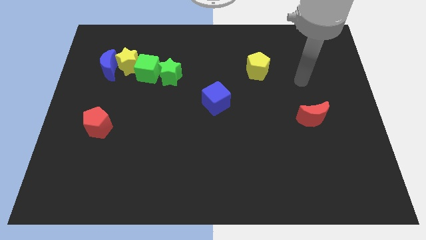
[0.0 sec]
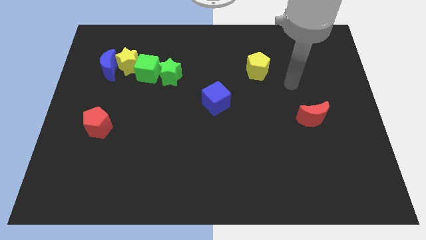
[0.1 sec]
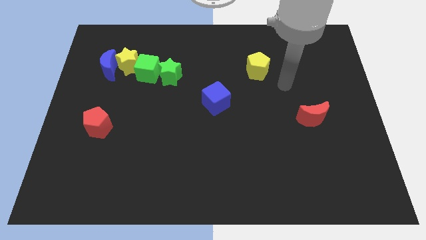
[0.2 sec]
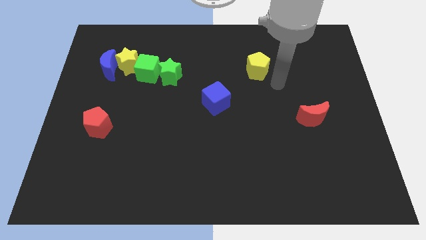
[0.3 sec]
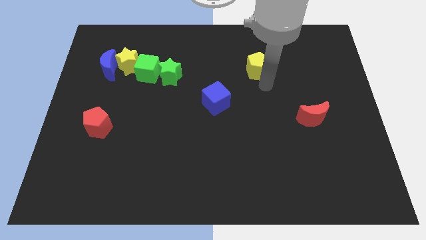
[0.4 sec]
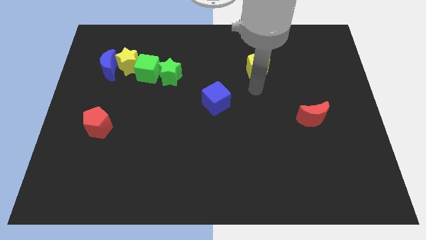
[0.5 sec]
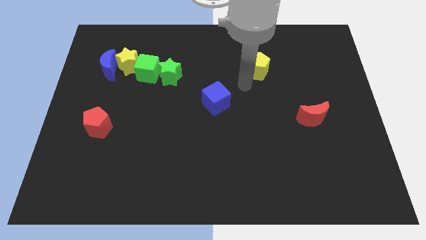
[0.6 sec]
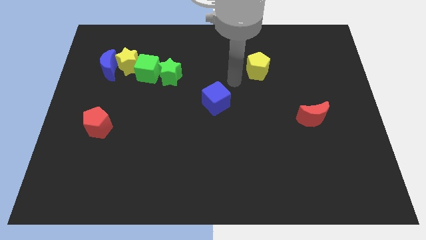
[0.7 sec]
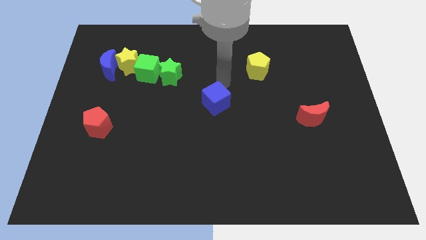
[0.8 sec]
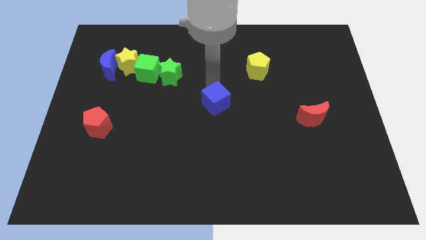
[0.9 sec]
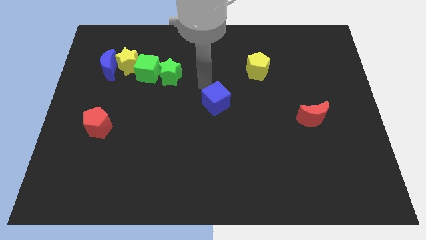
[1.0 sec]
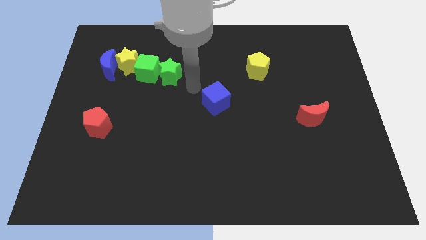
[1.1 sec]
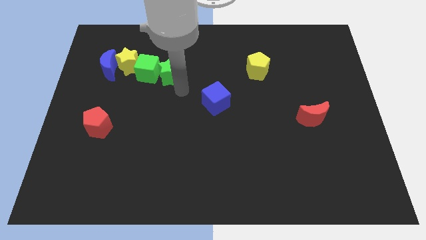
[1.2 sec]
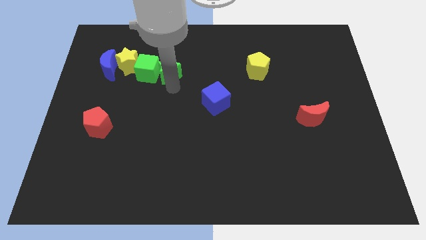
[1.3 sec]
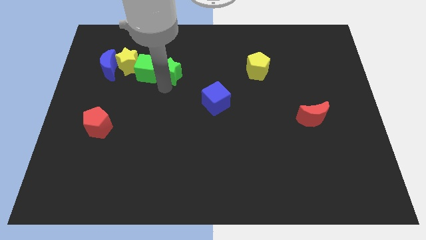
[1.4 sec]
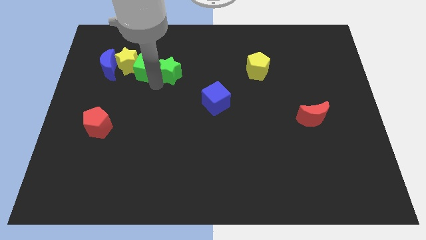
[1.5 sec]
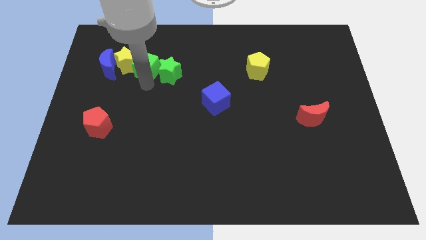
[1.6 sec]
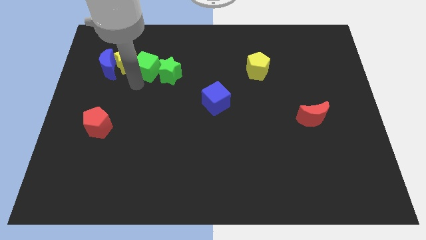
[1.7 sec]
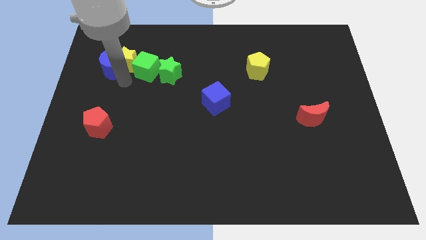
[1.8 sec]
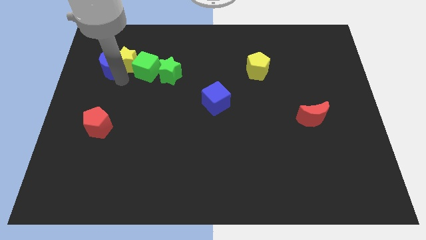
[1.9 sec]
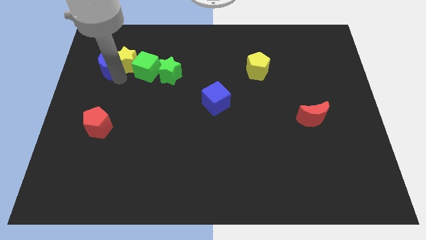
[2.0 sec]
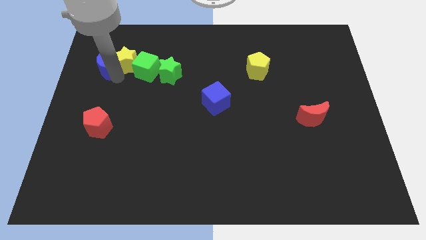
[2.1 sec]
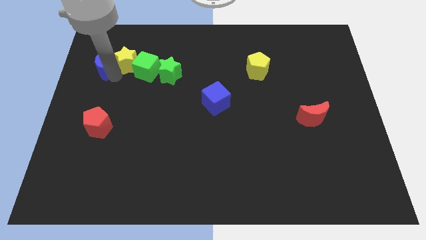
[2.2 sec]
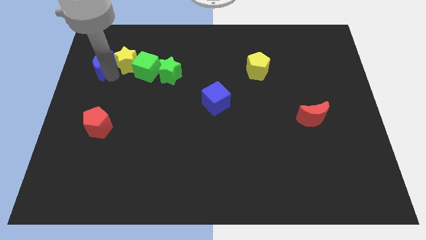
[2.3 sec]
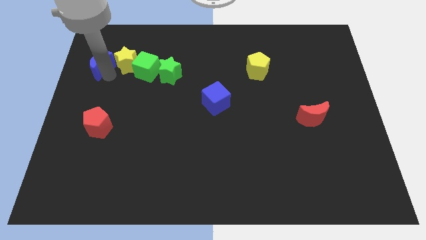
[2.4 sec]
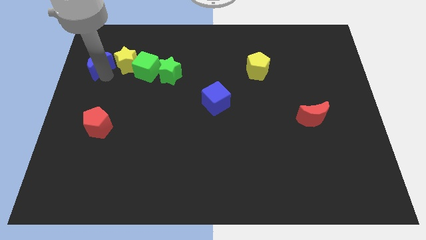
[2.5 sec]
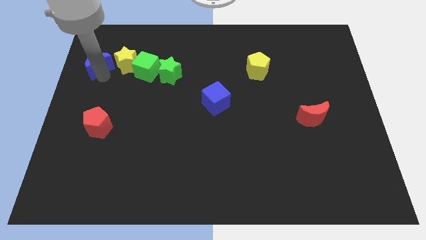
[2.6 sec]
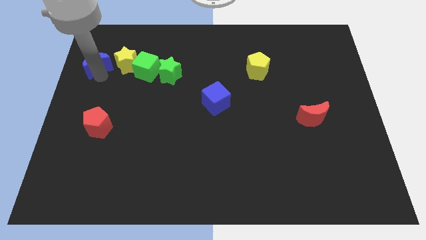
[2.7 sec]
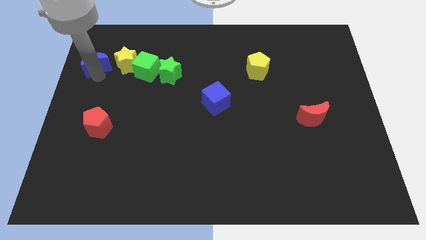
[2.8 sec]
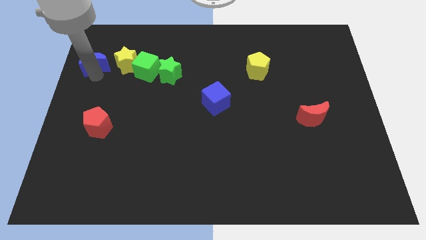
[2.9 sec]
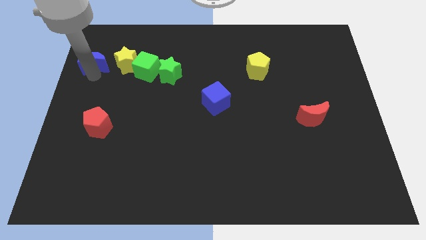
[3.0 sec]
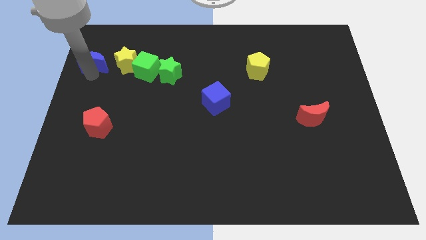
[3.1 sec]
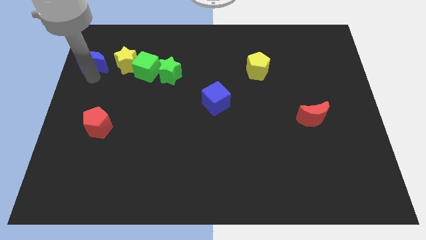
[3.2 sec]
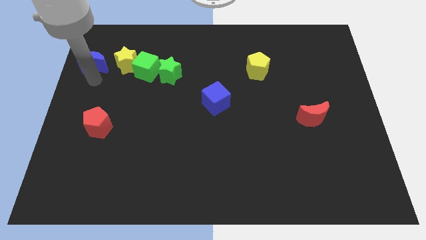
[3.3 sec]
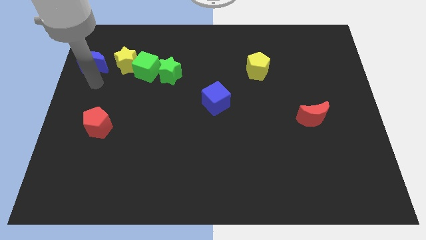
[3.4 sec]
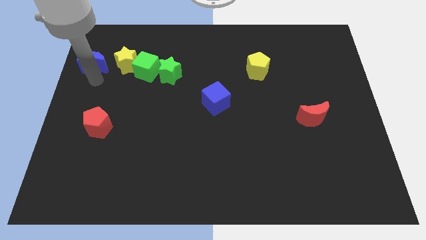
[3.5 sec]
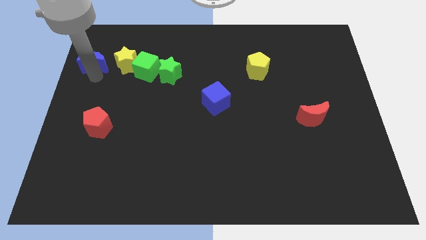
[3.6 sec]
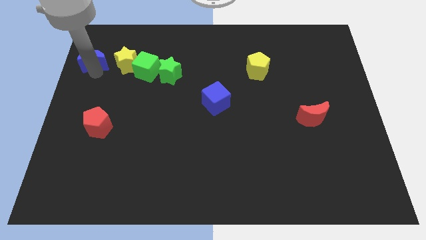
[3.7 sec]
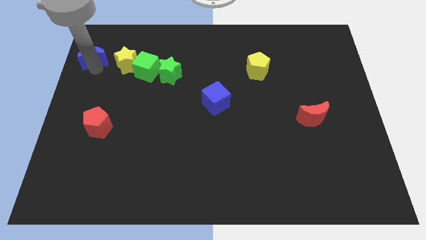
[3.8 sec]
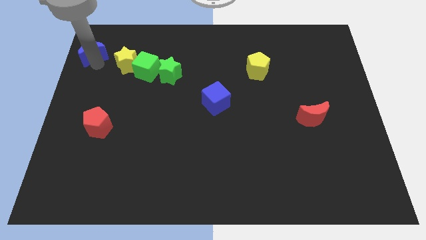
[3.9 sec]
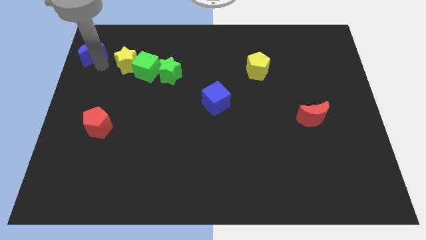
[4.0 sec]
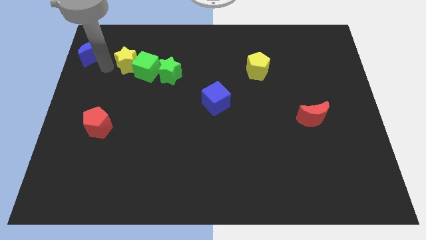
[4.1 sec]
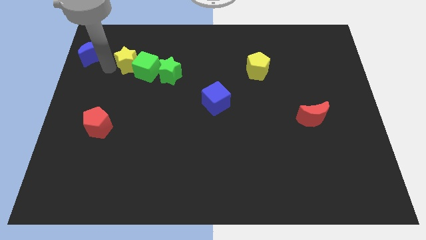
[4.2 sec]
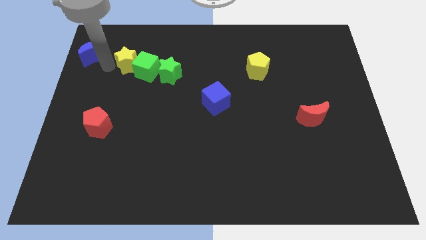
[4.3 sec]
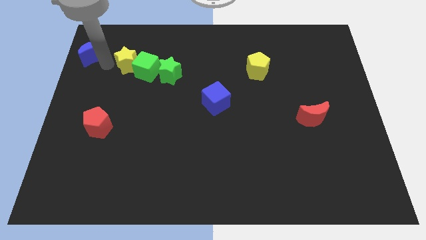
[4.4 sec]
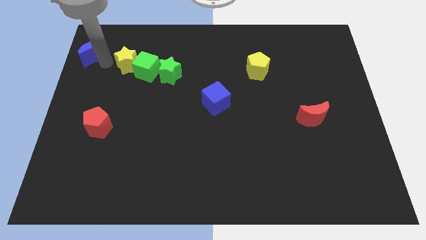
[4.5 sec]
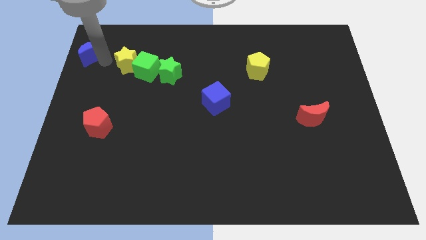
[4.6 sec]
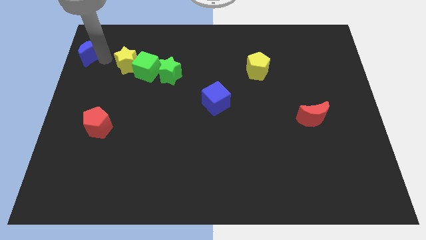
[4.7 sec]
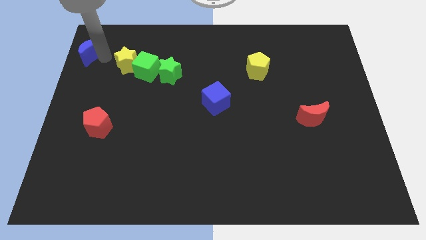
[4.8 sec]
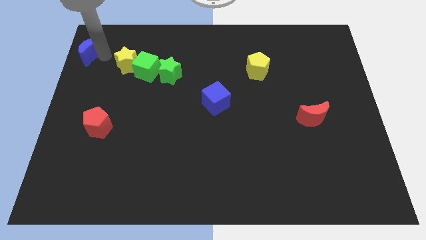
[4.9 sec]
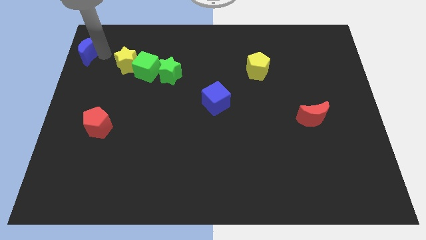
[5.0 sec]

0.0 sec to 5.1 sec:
move the blue moon to the top left

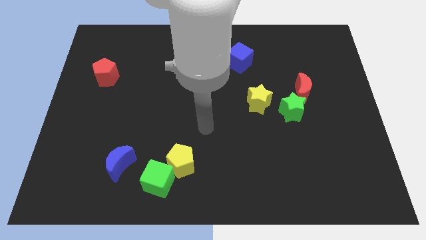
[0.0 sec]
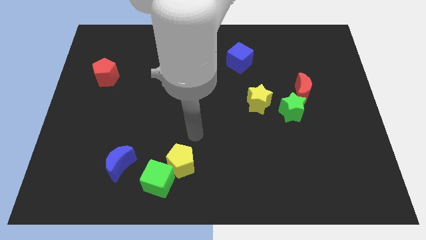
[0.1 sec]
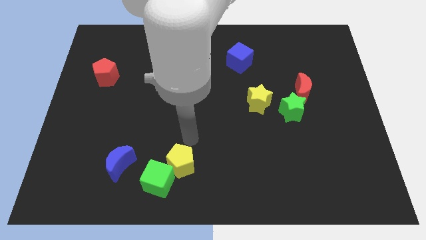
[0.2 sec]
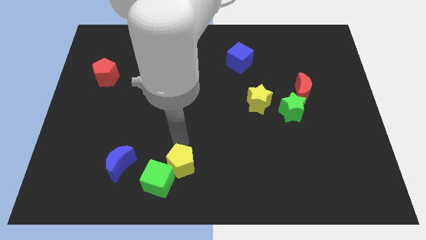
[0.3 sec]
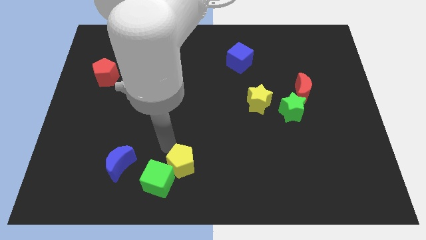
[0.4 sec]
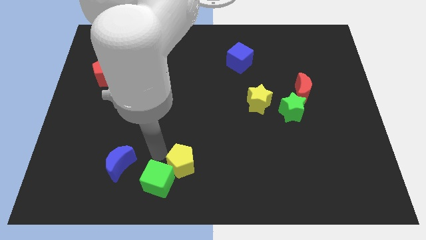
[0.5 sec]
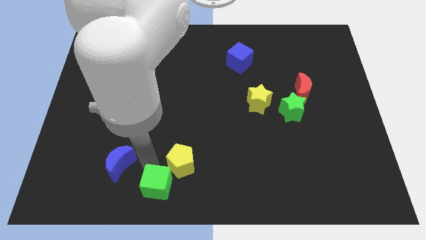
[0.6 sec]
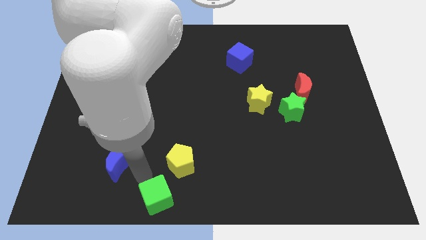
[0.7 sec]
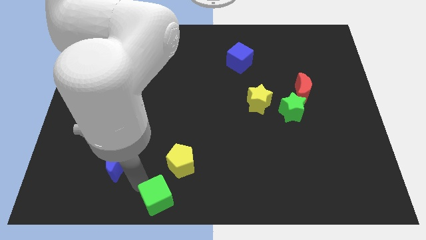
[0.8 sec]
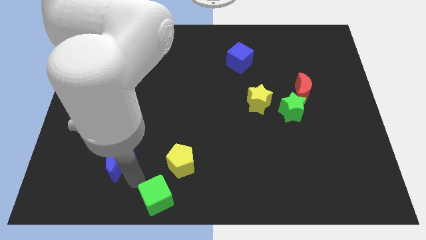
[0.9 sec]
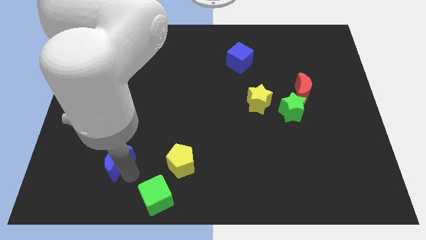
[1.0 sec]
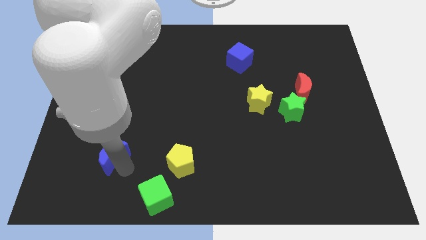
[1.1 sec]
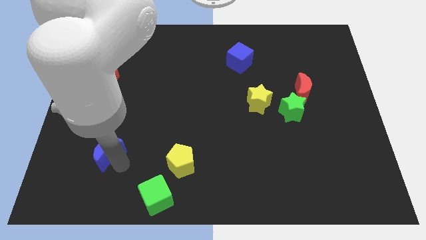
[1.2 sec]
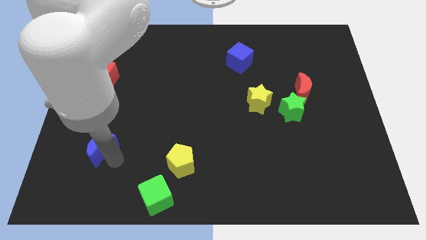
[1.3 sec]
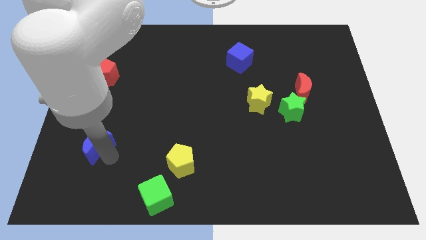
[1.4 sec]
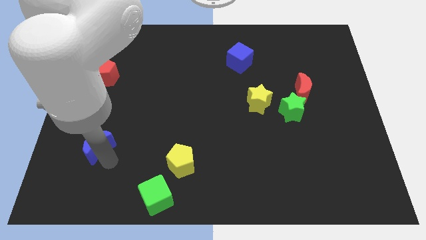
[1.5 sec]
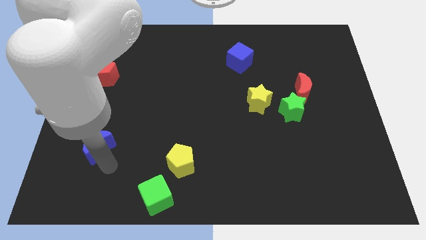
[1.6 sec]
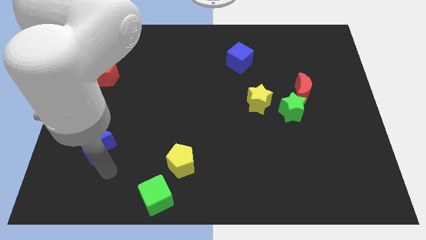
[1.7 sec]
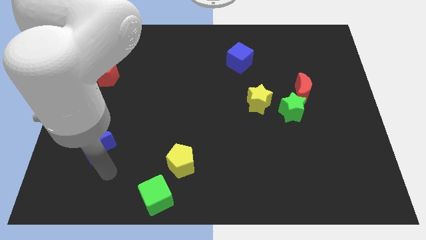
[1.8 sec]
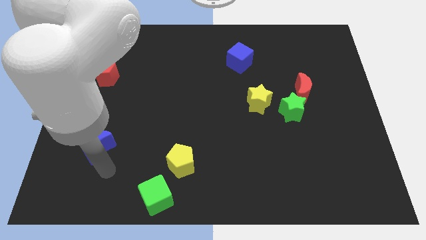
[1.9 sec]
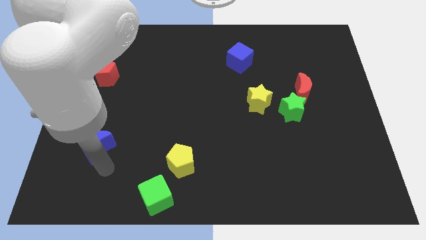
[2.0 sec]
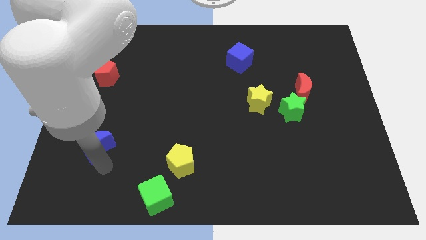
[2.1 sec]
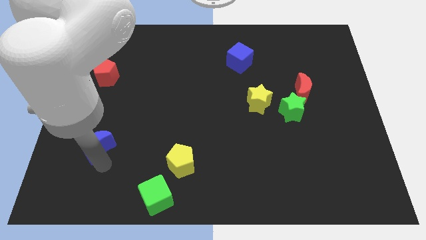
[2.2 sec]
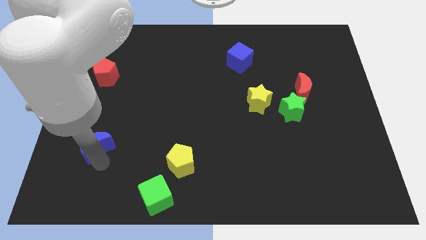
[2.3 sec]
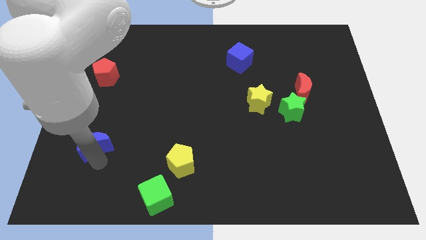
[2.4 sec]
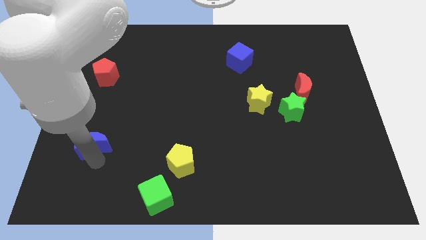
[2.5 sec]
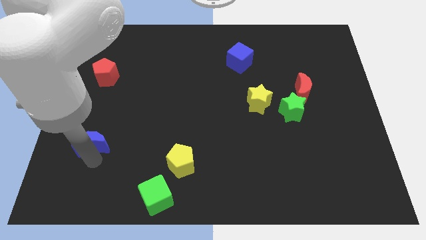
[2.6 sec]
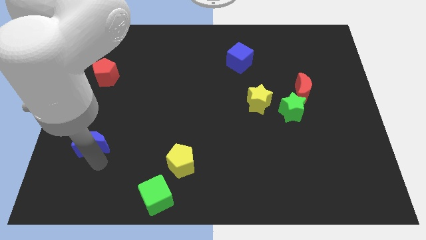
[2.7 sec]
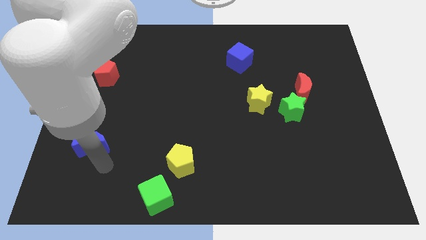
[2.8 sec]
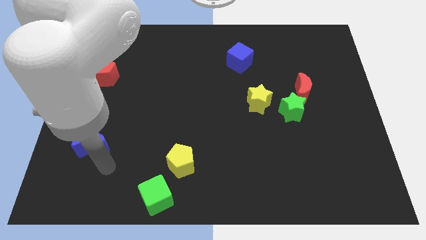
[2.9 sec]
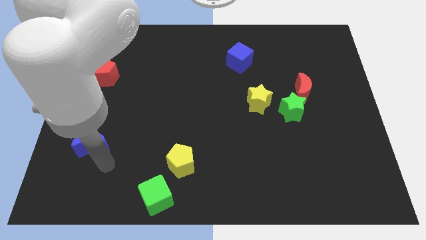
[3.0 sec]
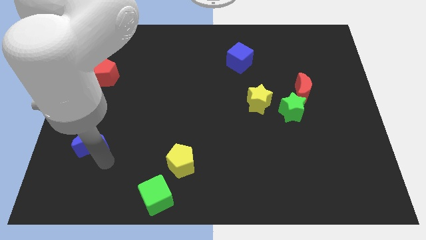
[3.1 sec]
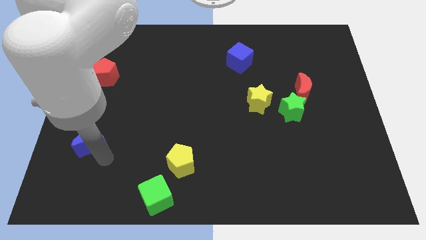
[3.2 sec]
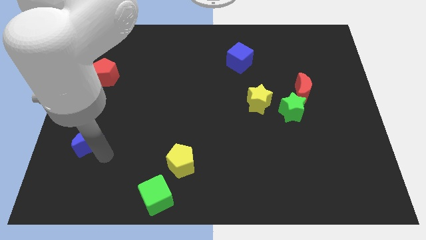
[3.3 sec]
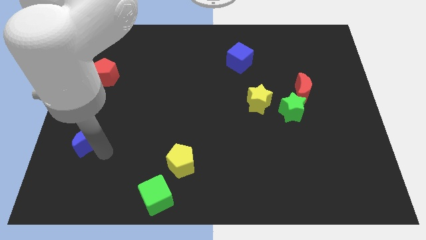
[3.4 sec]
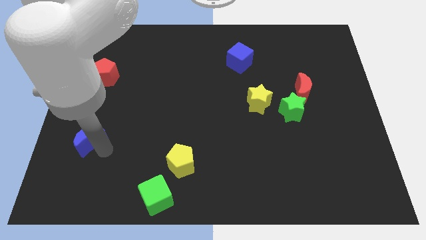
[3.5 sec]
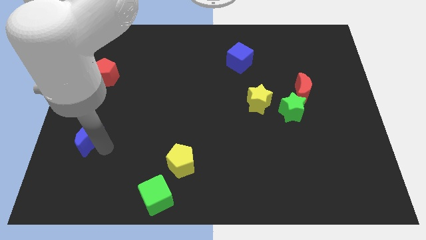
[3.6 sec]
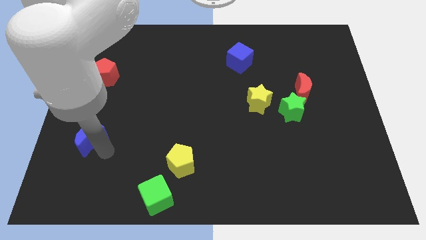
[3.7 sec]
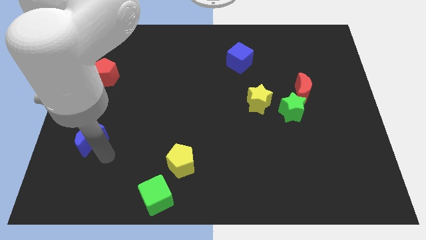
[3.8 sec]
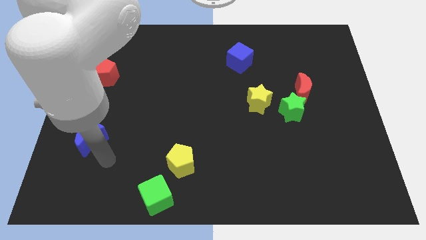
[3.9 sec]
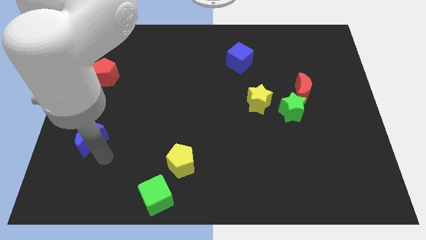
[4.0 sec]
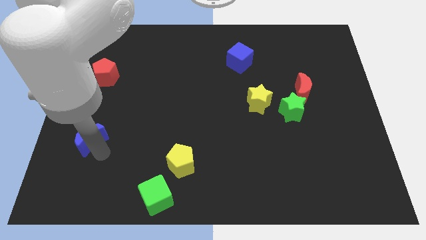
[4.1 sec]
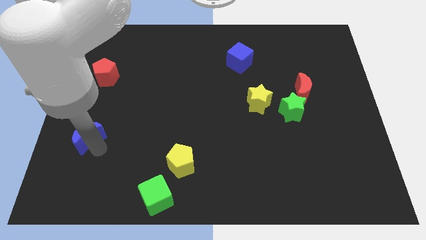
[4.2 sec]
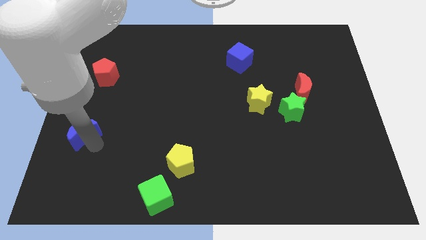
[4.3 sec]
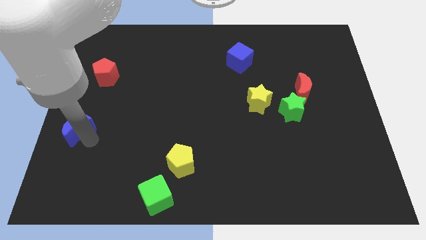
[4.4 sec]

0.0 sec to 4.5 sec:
move the blue moon to the center left
